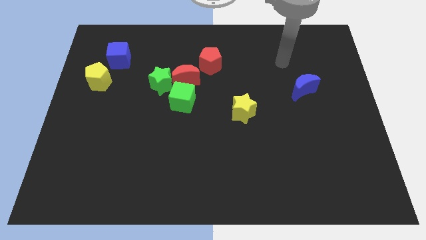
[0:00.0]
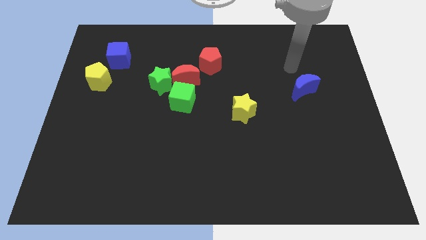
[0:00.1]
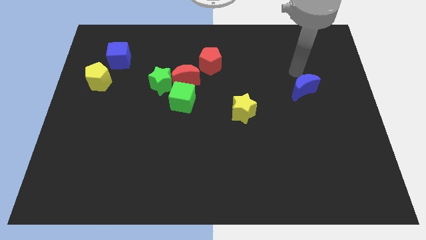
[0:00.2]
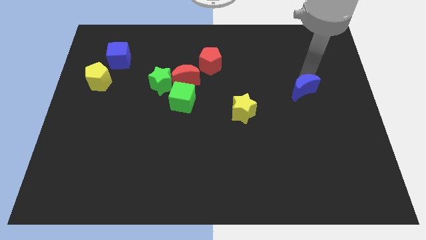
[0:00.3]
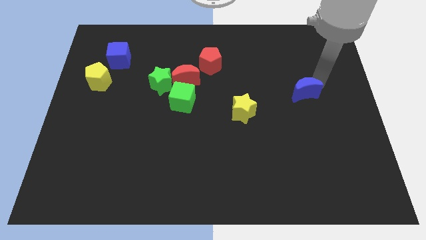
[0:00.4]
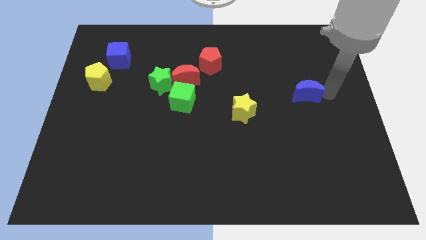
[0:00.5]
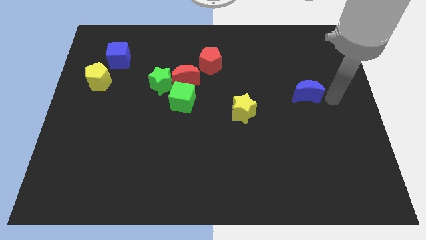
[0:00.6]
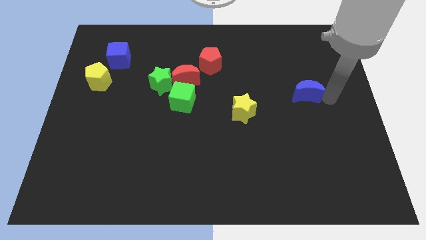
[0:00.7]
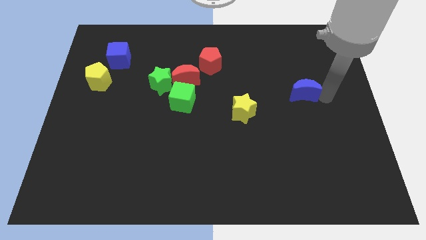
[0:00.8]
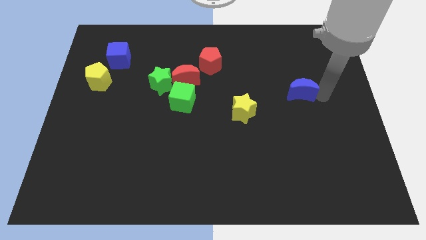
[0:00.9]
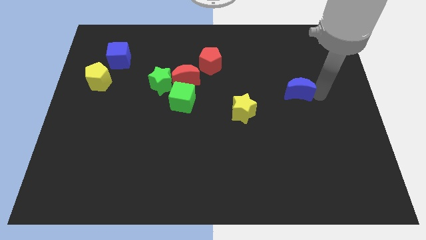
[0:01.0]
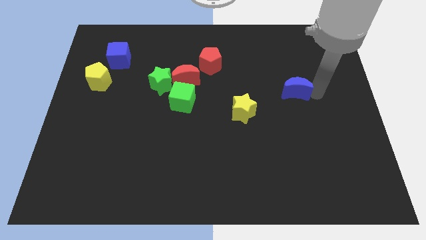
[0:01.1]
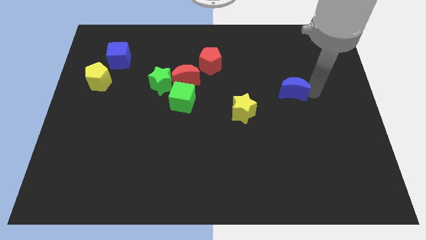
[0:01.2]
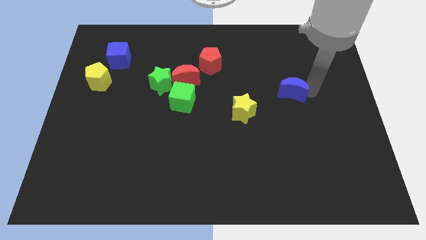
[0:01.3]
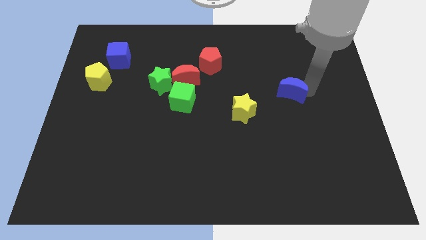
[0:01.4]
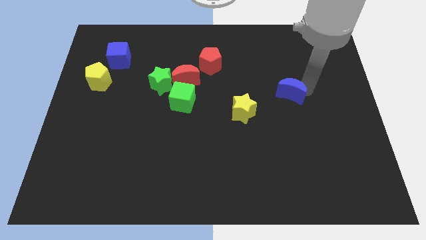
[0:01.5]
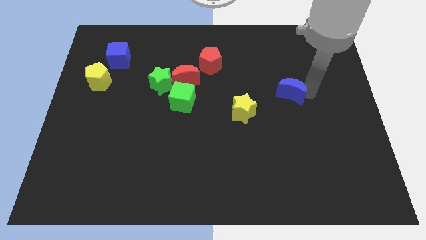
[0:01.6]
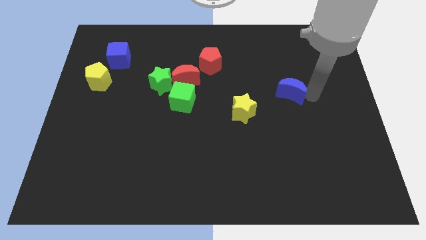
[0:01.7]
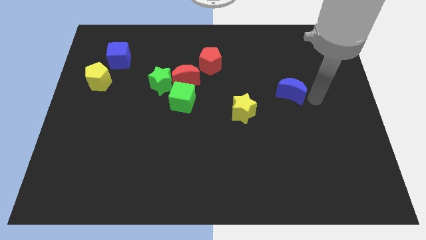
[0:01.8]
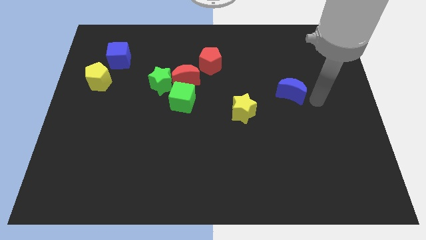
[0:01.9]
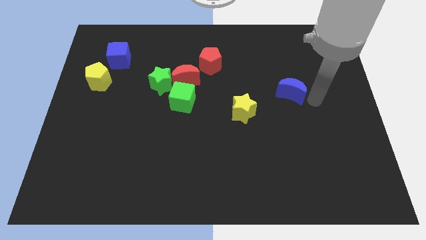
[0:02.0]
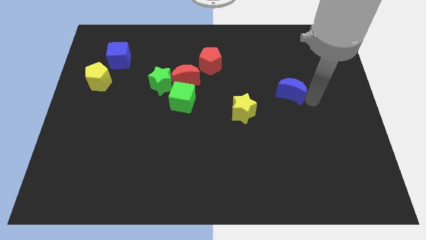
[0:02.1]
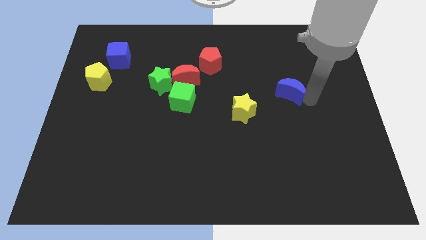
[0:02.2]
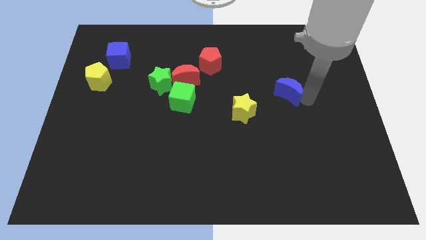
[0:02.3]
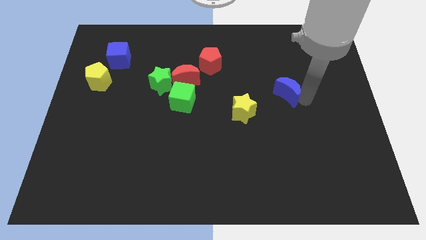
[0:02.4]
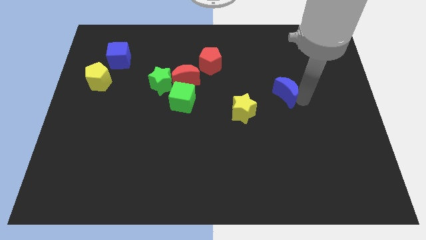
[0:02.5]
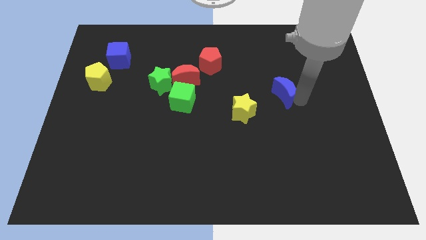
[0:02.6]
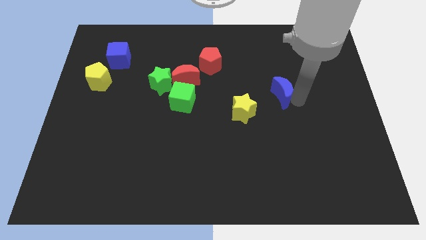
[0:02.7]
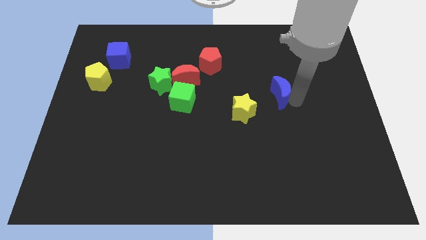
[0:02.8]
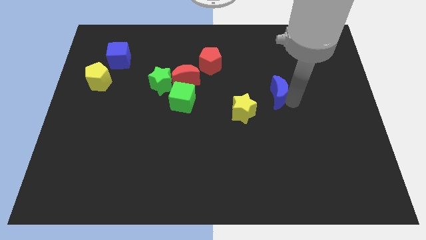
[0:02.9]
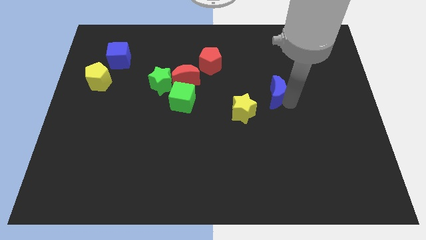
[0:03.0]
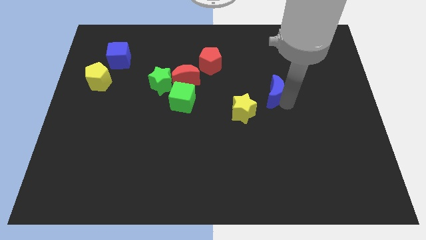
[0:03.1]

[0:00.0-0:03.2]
slightly slide the blue moon left

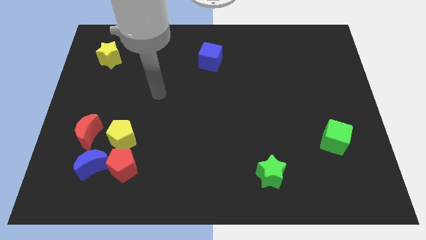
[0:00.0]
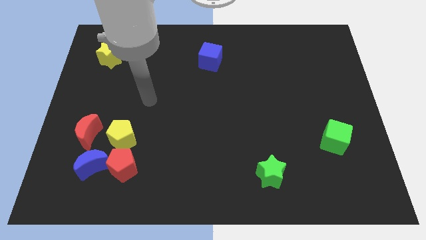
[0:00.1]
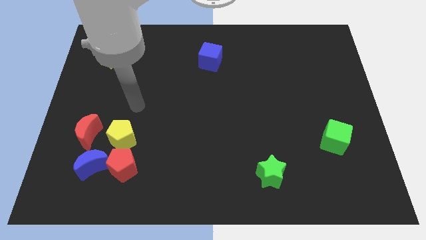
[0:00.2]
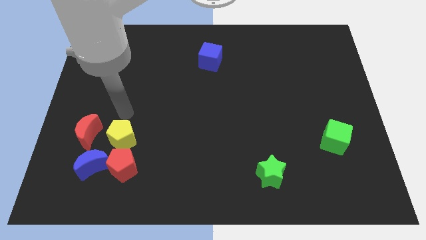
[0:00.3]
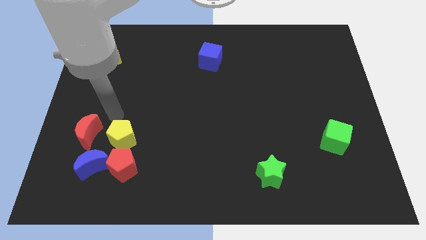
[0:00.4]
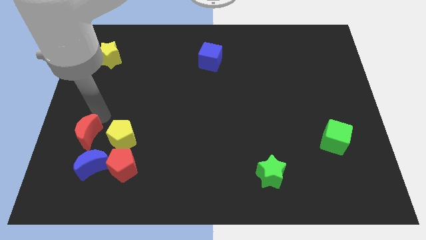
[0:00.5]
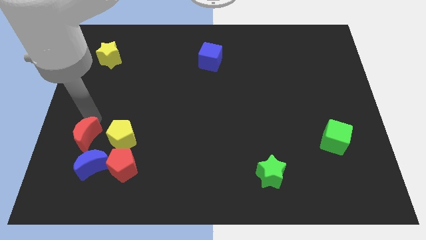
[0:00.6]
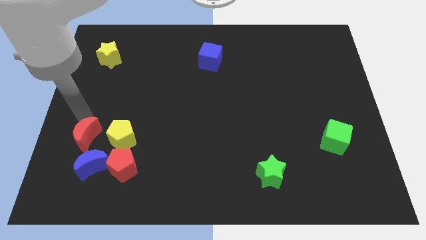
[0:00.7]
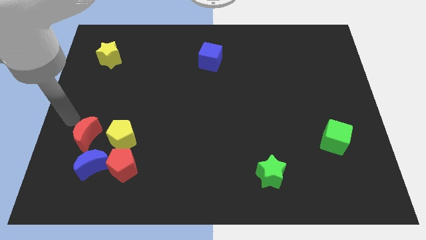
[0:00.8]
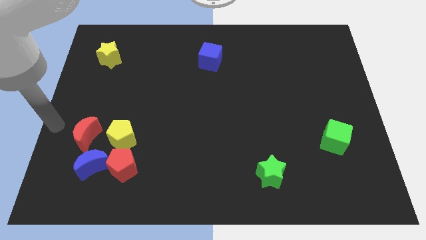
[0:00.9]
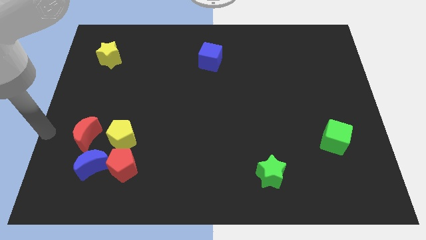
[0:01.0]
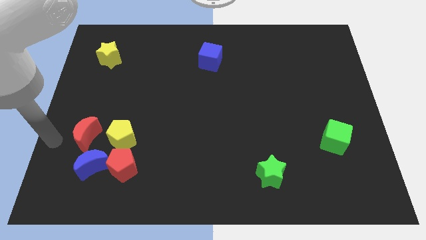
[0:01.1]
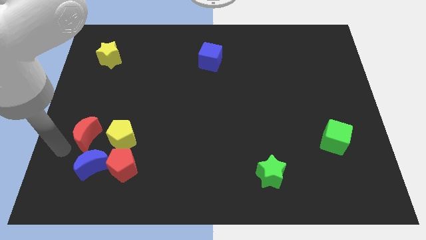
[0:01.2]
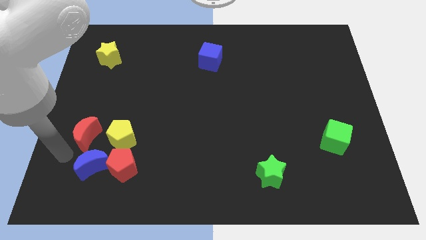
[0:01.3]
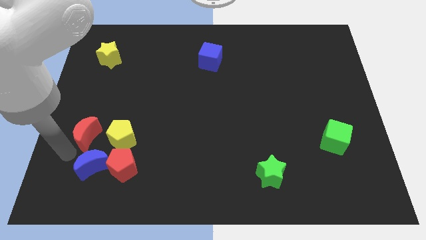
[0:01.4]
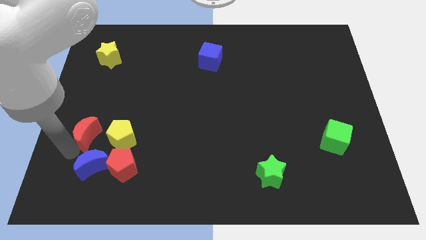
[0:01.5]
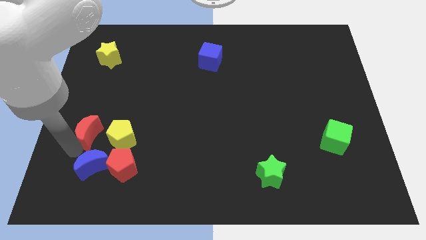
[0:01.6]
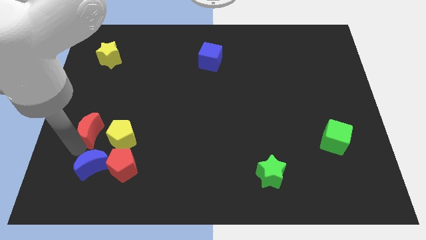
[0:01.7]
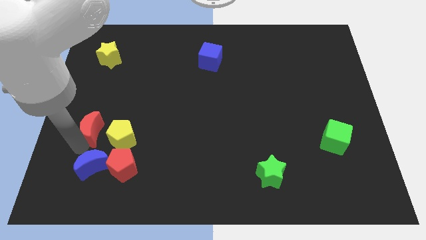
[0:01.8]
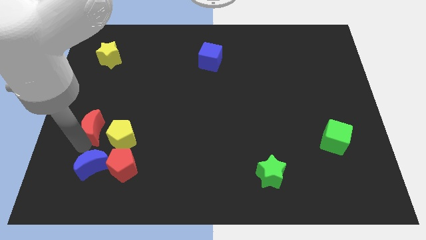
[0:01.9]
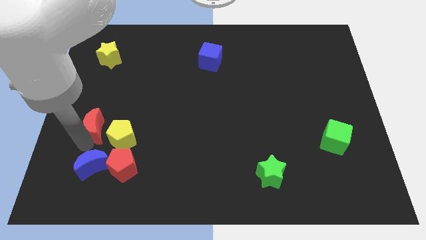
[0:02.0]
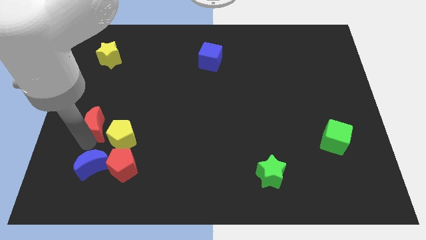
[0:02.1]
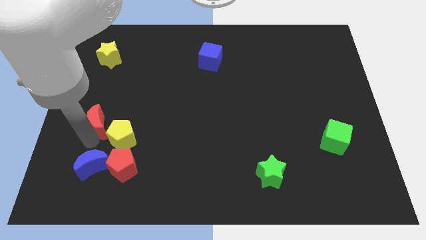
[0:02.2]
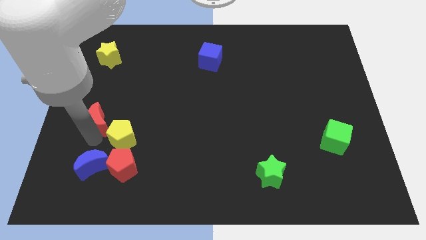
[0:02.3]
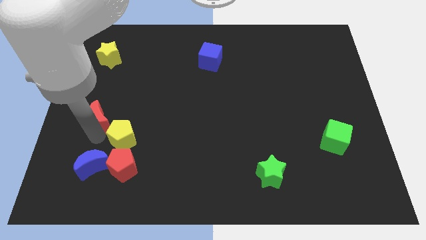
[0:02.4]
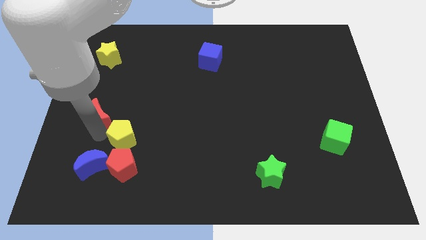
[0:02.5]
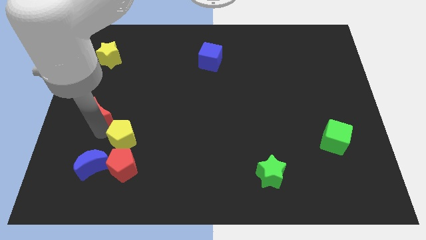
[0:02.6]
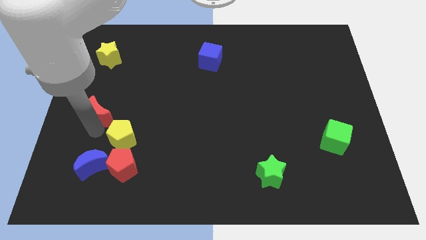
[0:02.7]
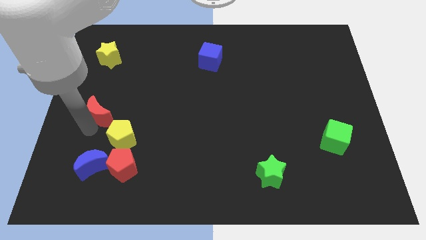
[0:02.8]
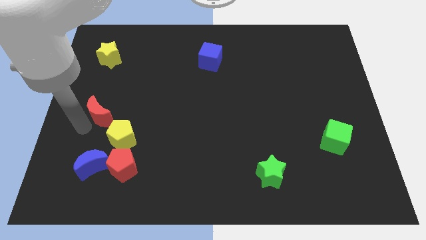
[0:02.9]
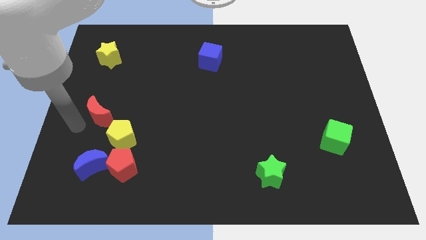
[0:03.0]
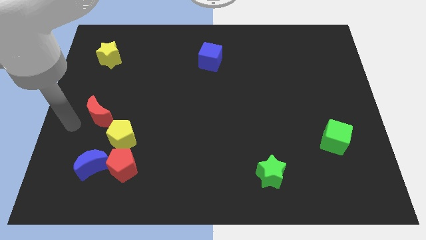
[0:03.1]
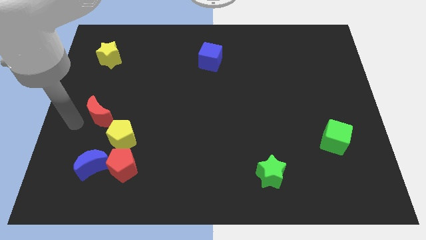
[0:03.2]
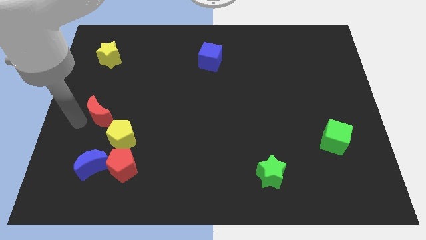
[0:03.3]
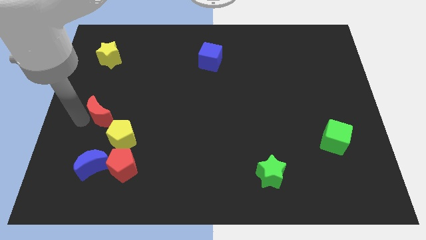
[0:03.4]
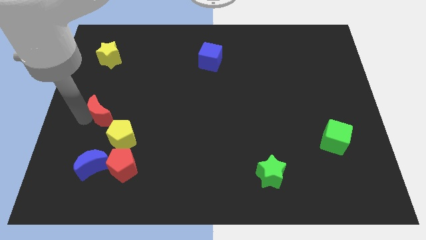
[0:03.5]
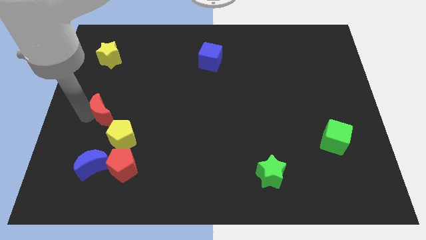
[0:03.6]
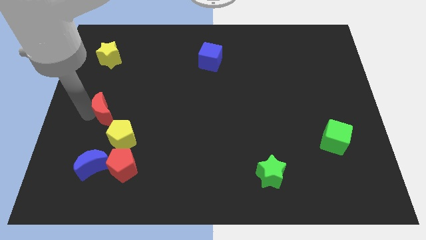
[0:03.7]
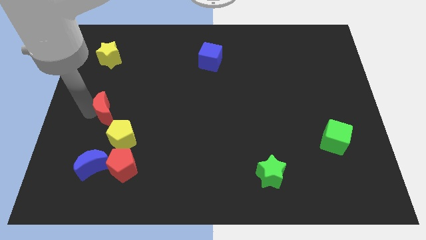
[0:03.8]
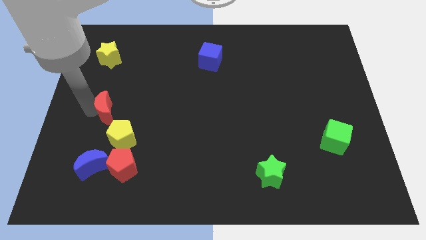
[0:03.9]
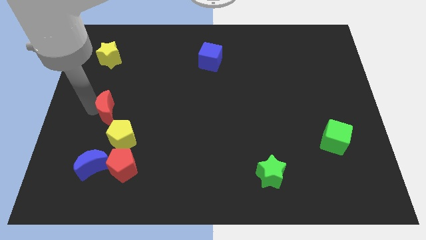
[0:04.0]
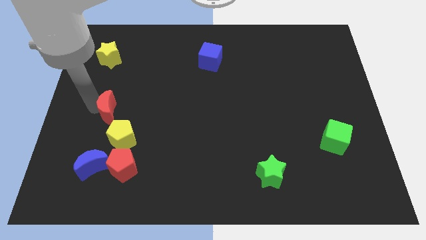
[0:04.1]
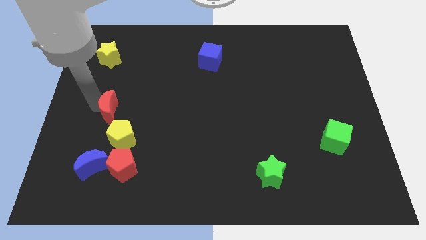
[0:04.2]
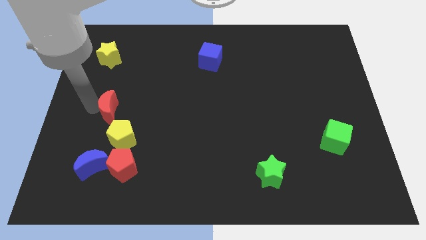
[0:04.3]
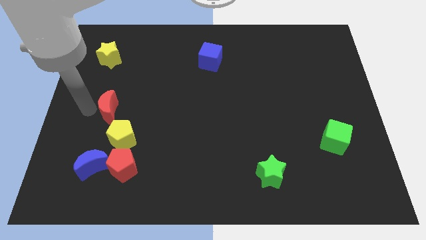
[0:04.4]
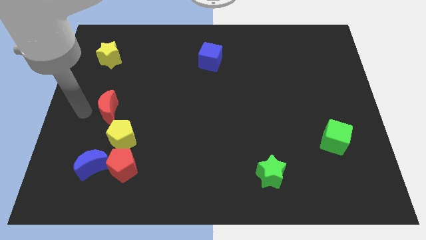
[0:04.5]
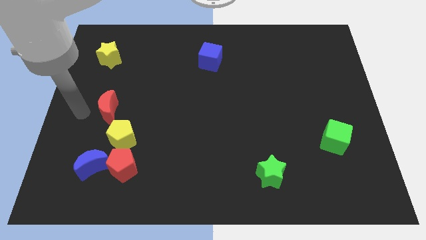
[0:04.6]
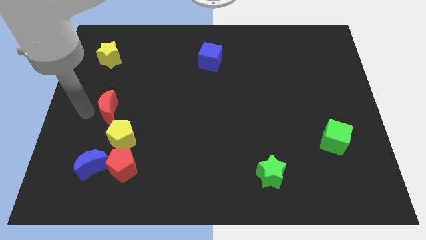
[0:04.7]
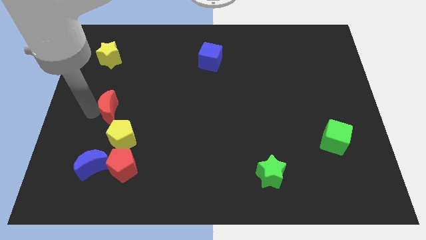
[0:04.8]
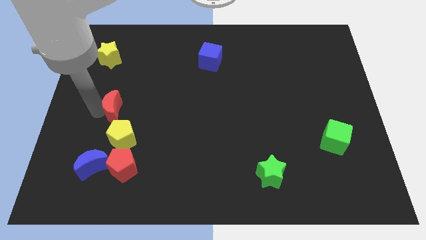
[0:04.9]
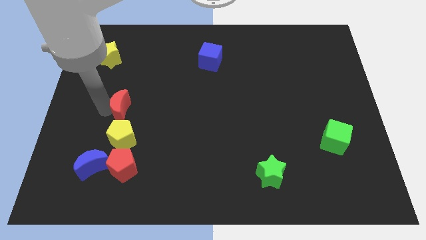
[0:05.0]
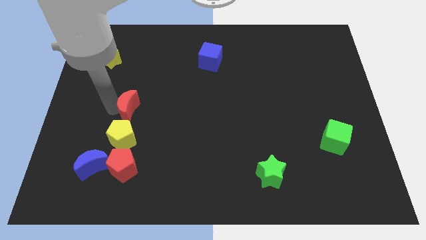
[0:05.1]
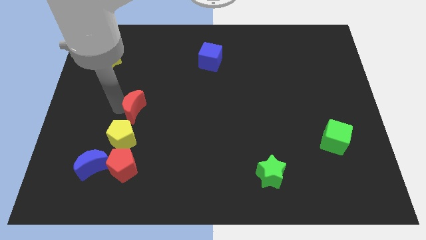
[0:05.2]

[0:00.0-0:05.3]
slide the red moon somewhat to the right
